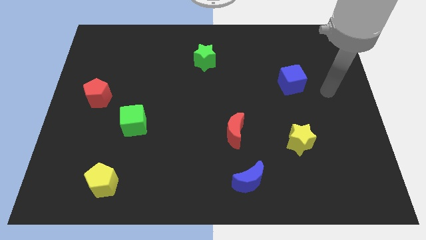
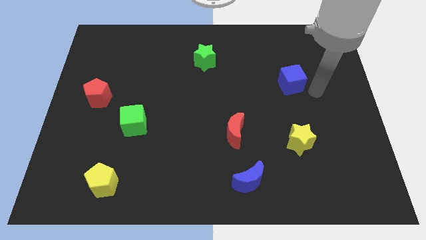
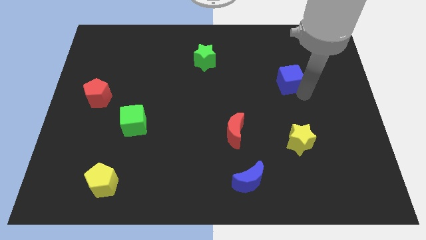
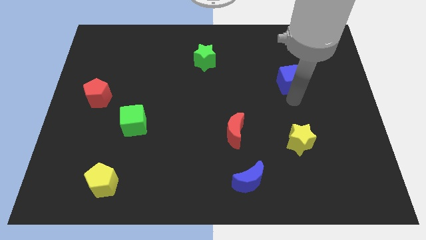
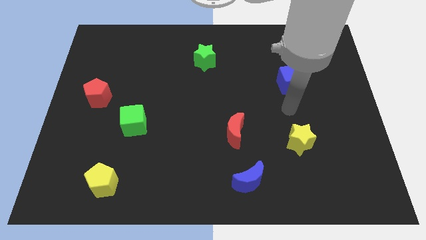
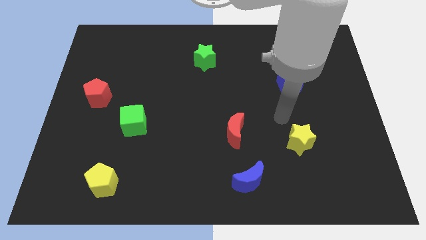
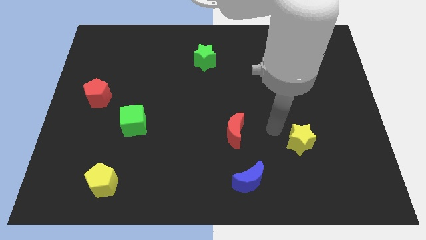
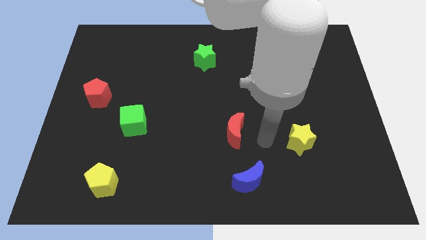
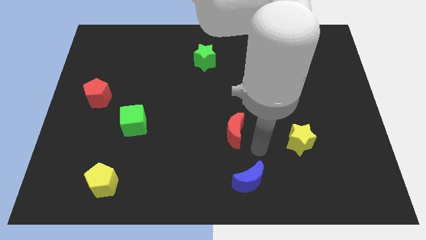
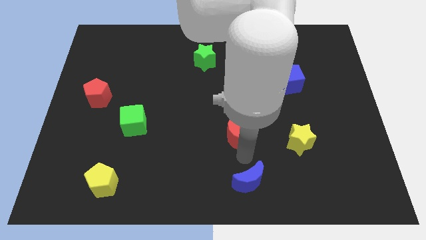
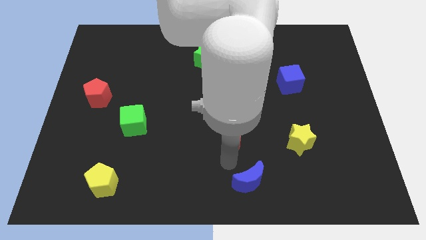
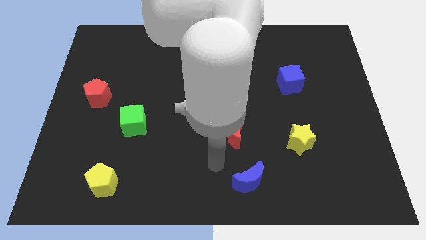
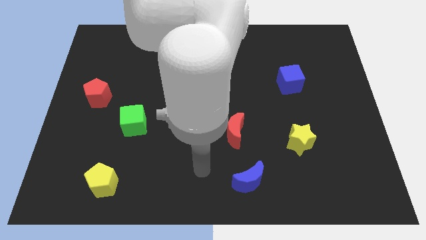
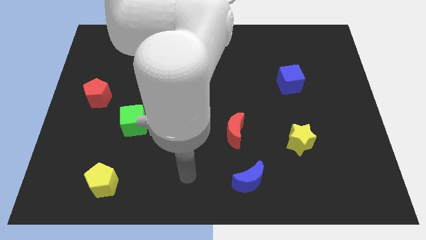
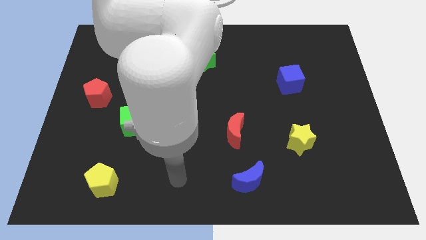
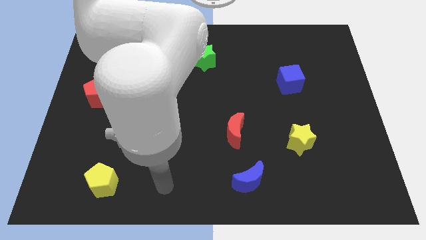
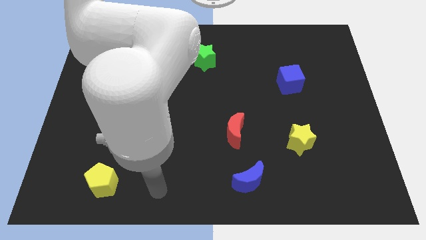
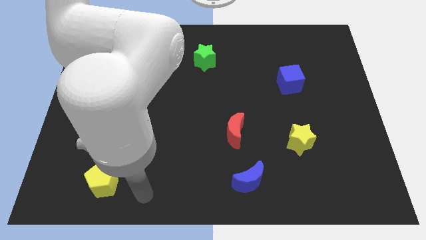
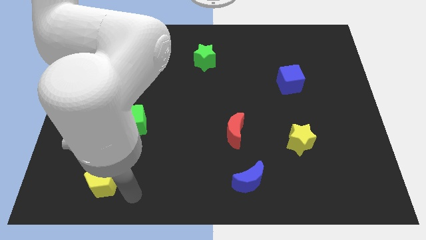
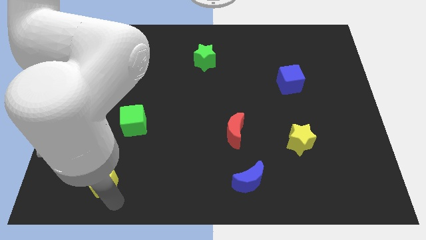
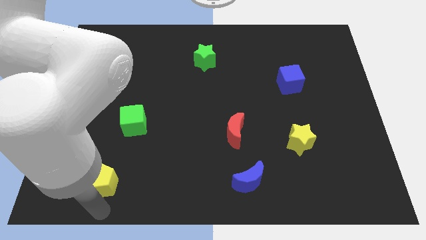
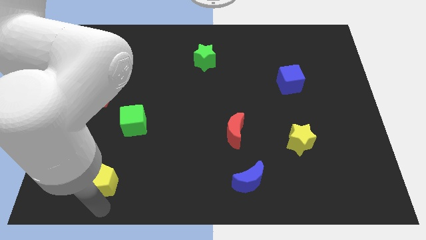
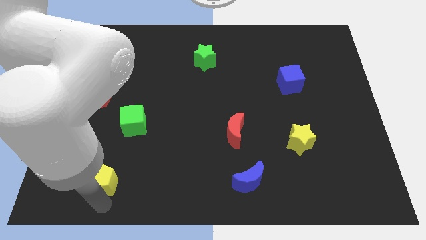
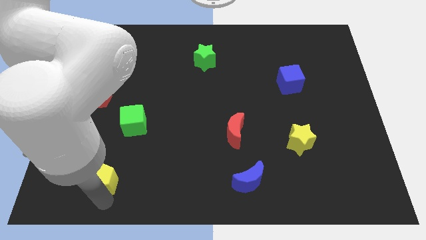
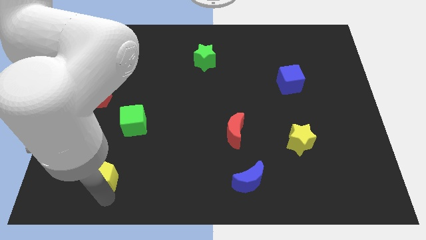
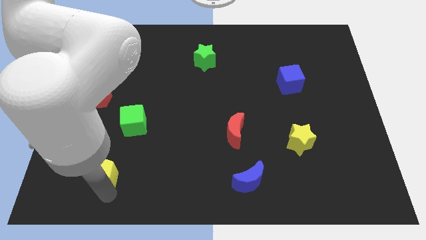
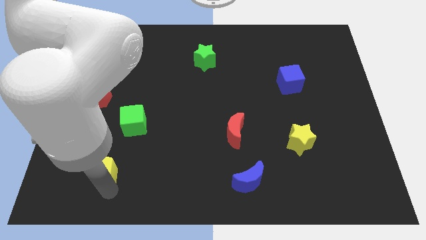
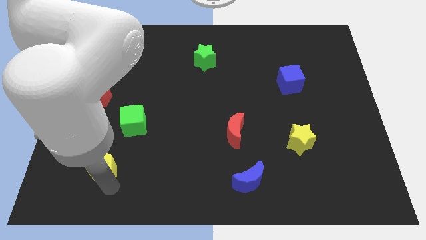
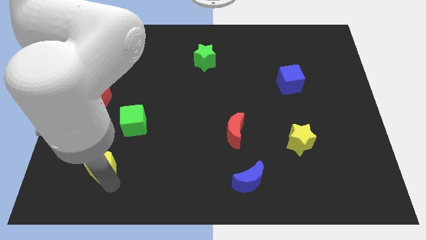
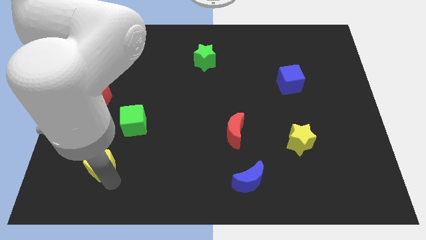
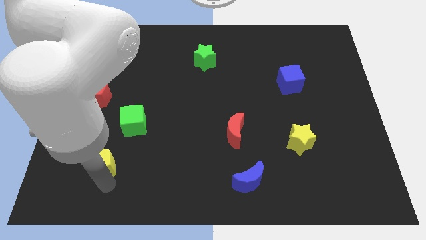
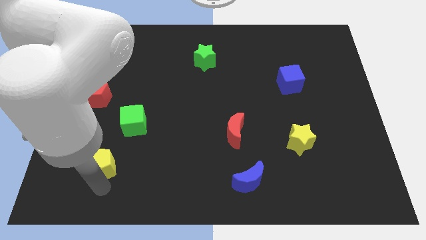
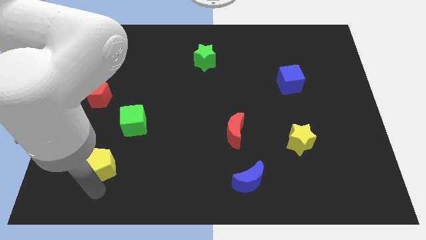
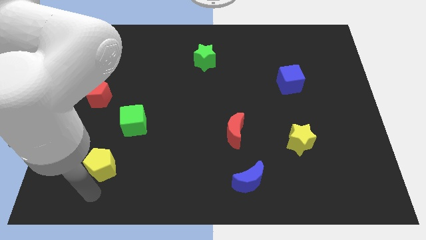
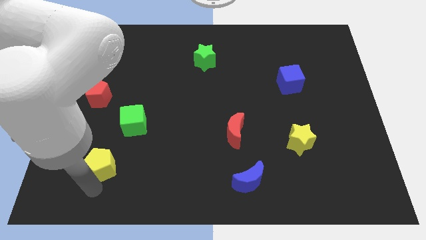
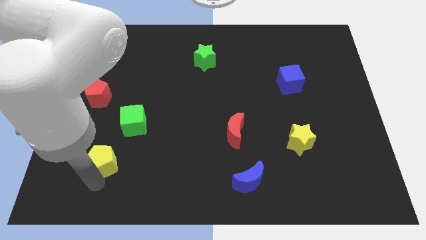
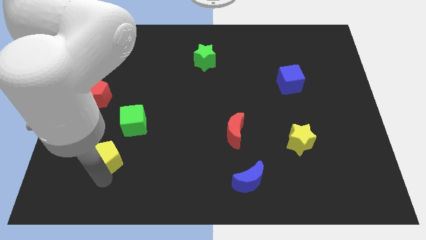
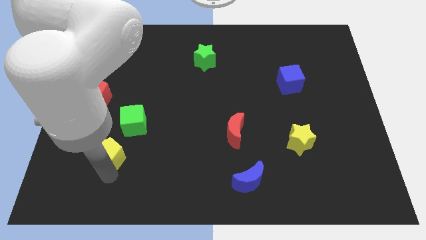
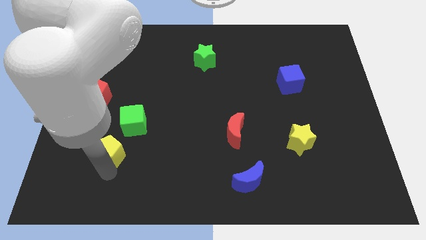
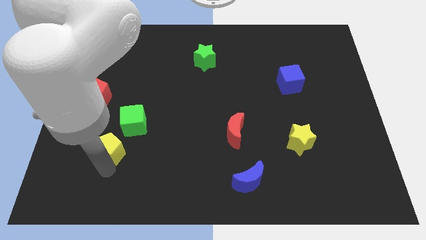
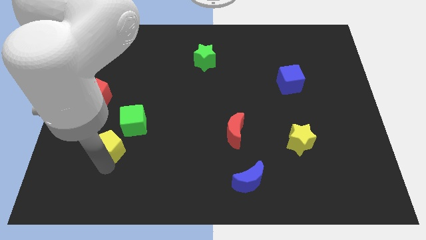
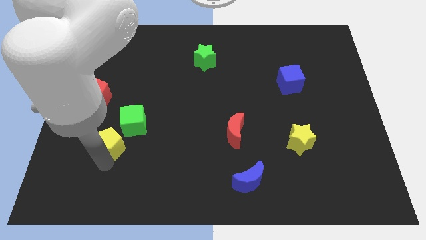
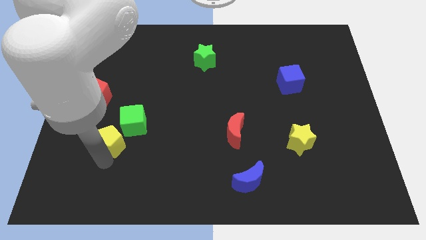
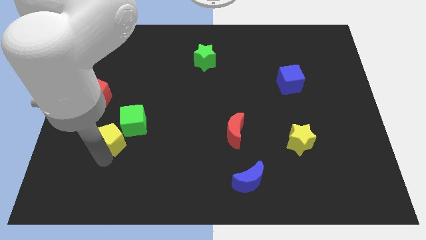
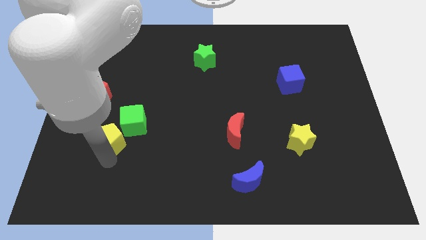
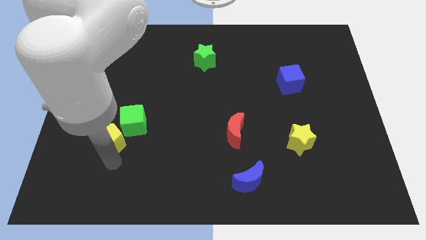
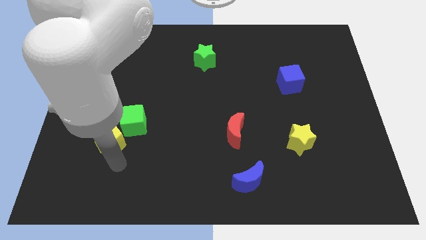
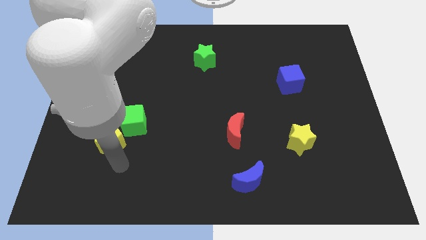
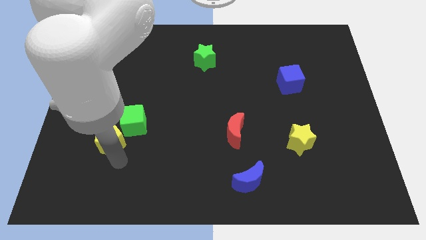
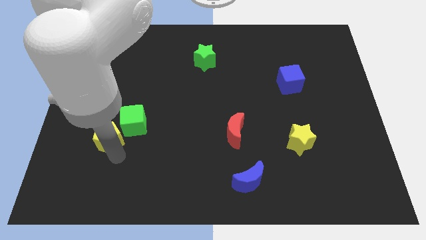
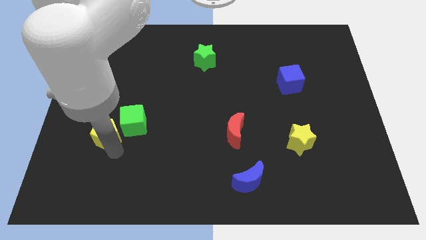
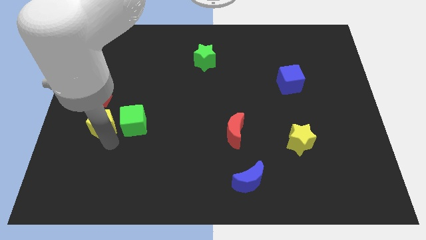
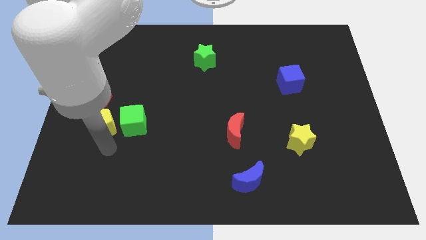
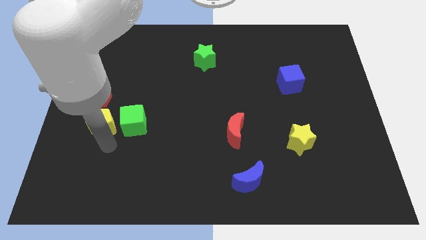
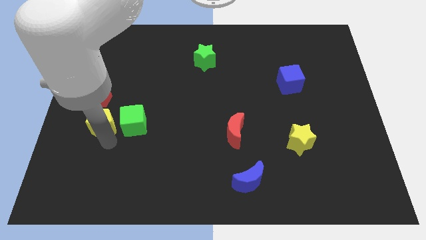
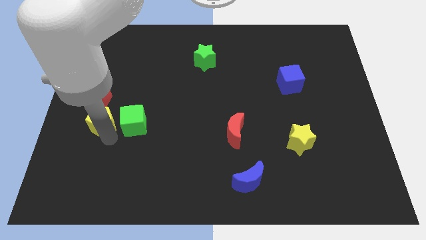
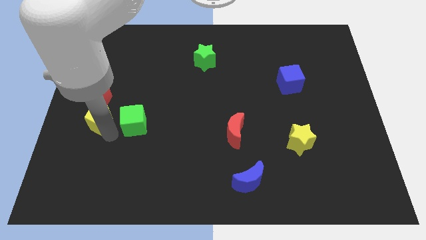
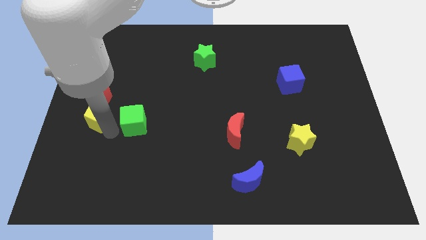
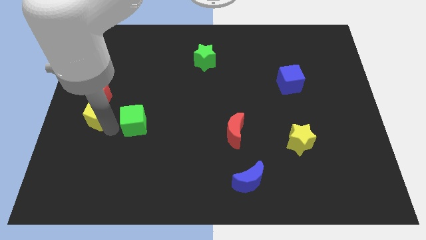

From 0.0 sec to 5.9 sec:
push the yellow pentagon next to the red pentagon

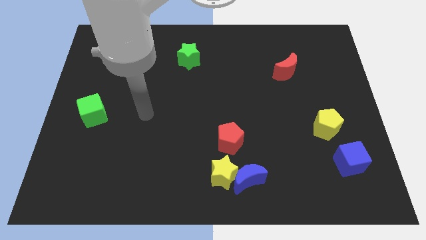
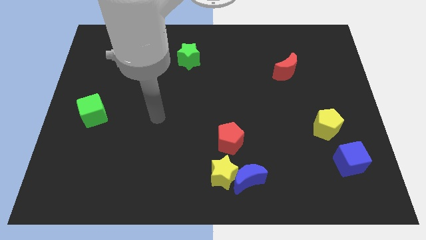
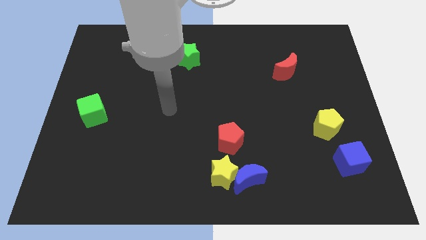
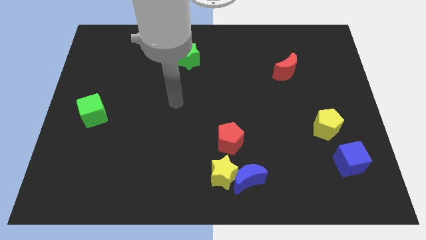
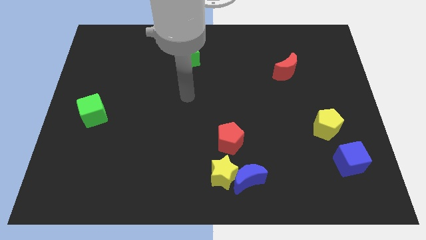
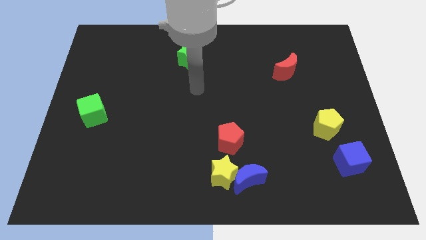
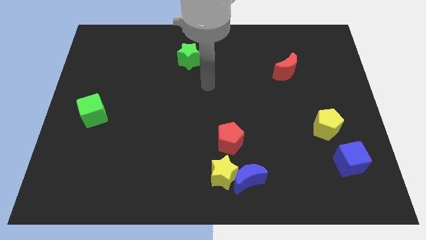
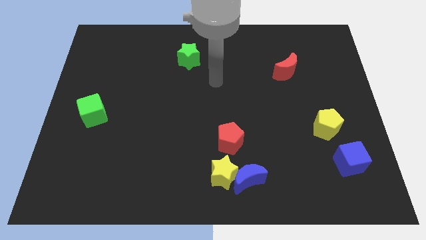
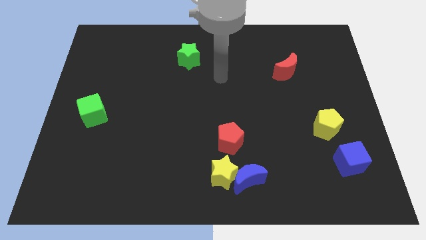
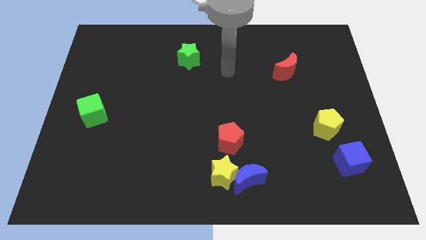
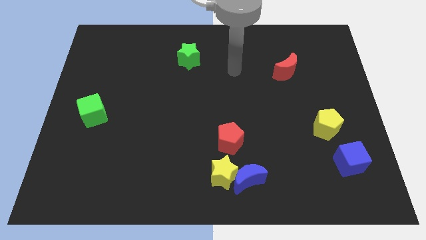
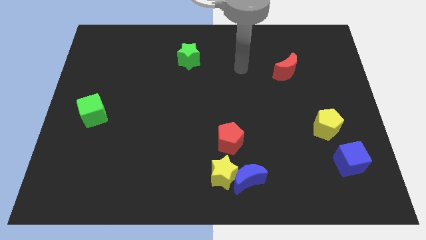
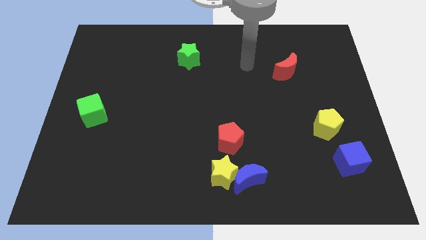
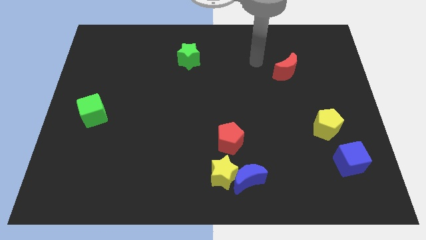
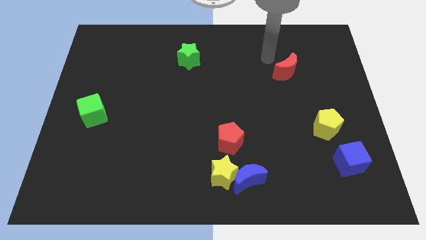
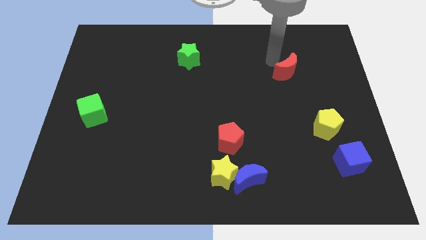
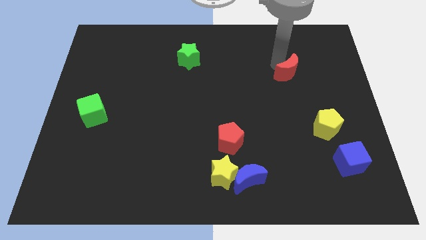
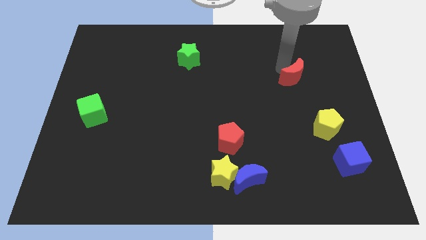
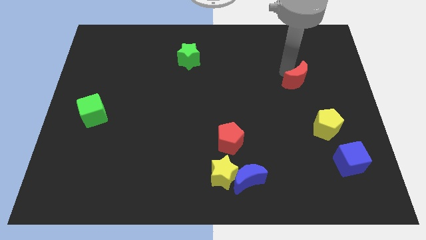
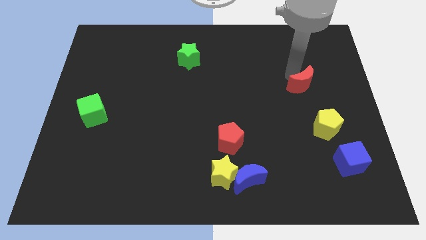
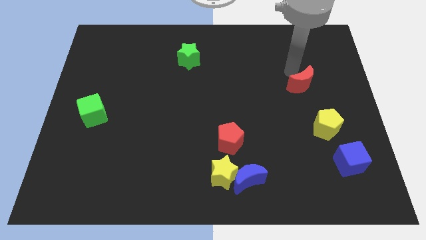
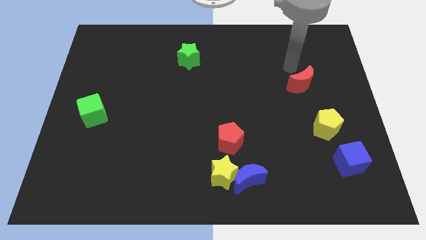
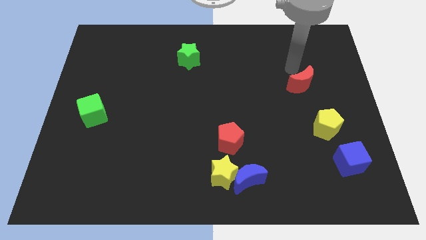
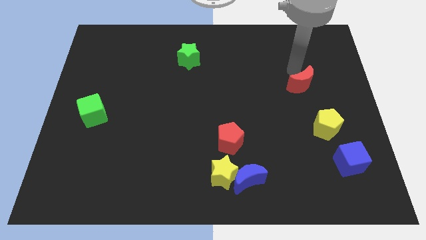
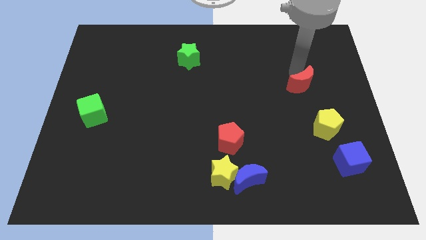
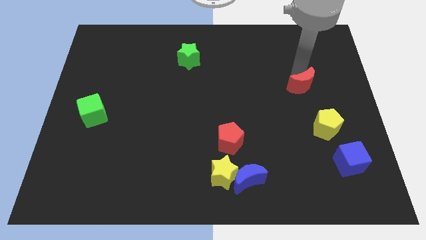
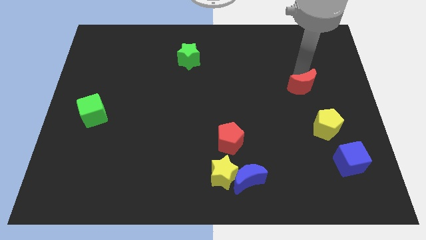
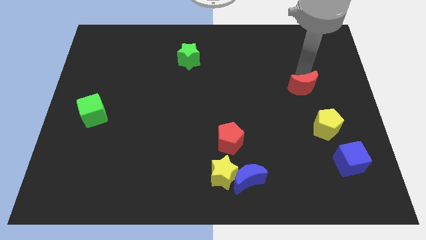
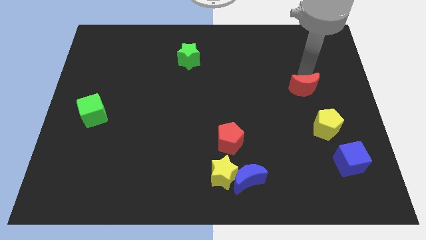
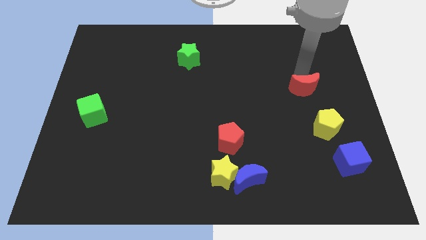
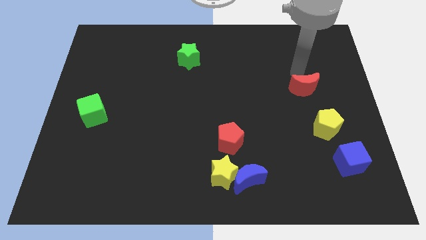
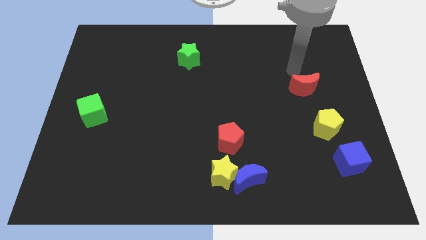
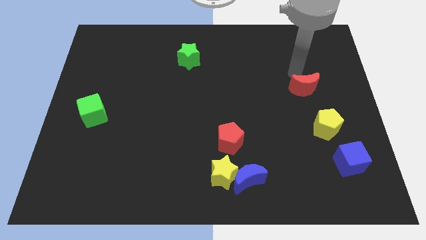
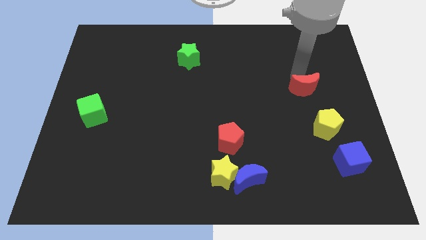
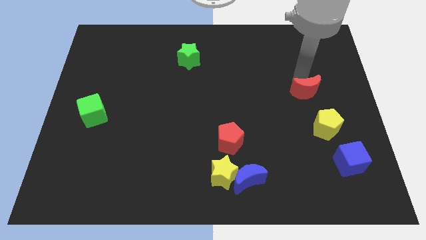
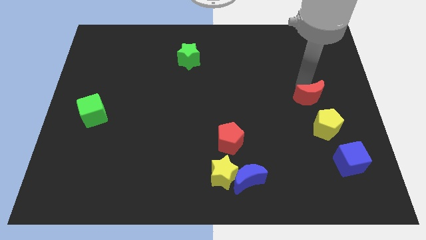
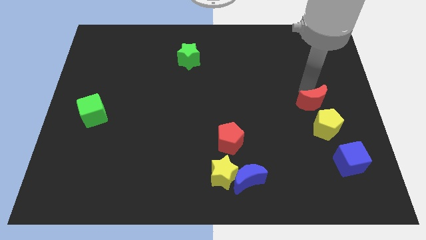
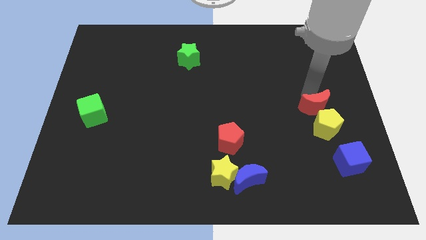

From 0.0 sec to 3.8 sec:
move the red moon close to the yellow pentagon
